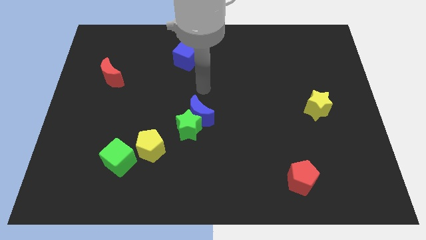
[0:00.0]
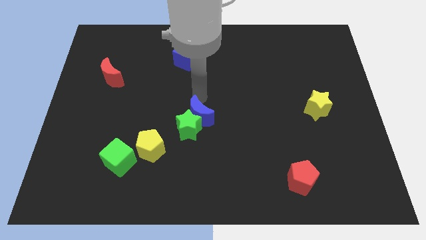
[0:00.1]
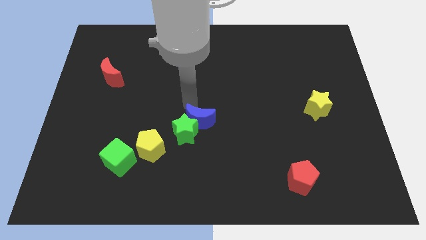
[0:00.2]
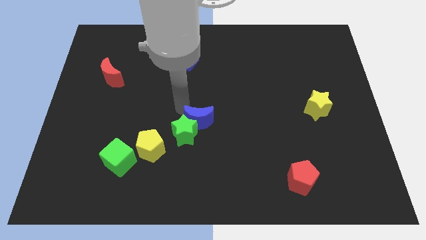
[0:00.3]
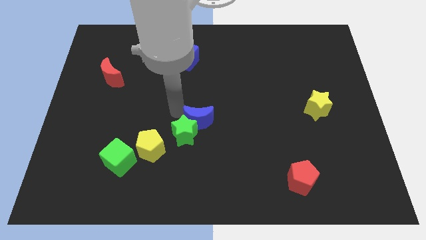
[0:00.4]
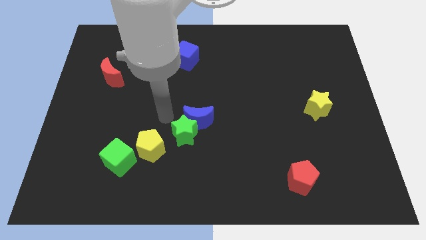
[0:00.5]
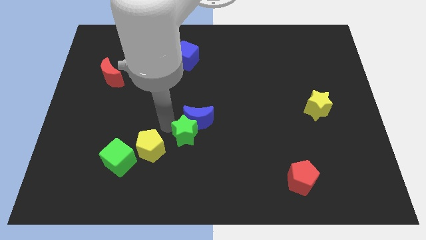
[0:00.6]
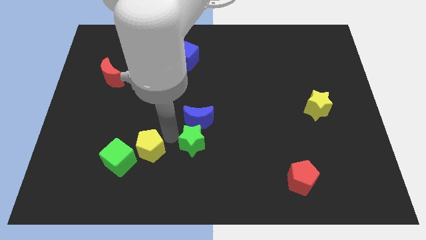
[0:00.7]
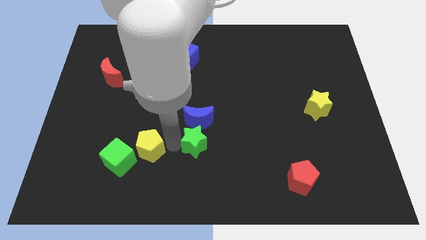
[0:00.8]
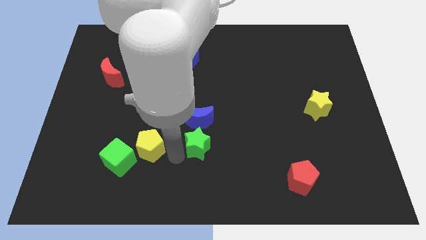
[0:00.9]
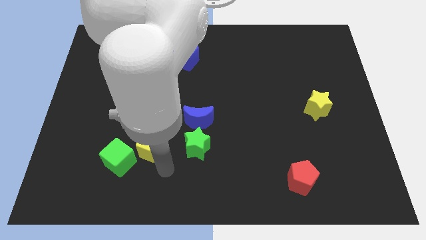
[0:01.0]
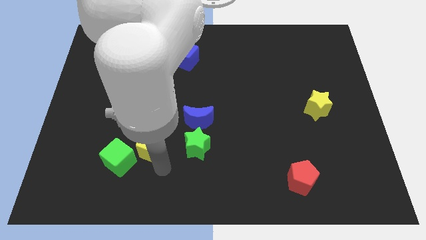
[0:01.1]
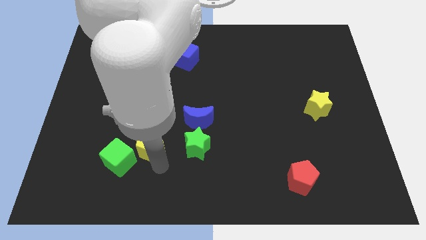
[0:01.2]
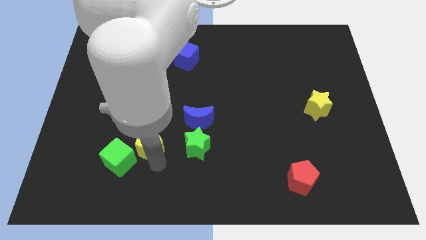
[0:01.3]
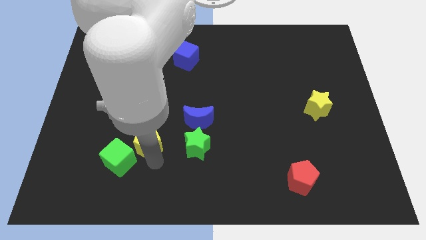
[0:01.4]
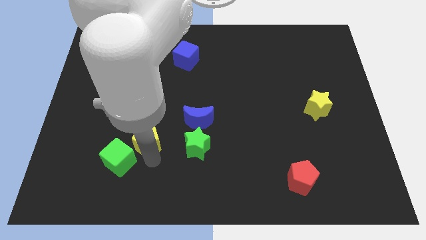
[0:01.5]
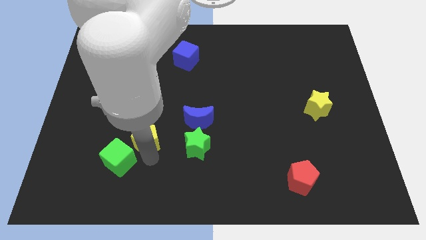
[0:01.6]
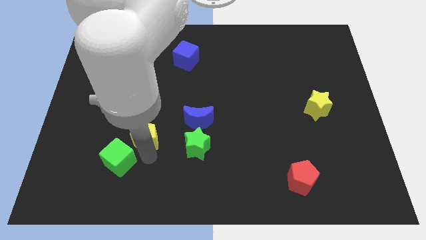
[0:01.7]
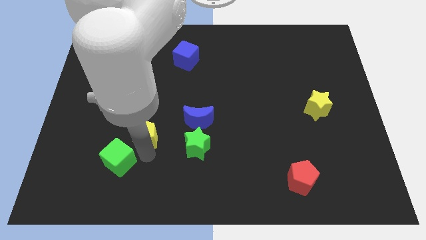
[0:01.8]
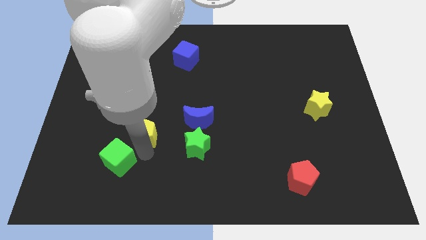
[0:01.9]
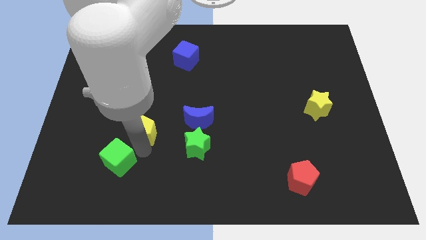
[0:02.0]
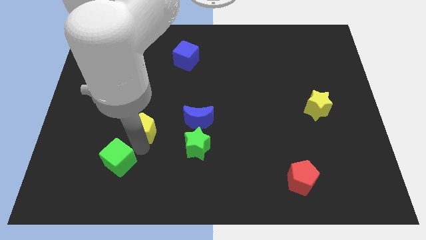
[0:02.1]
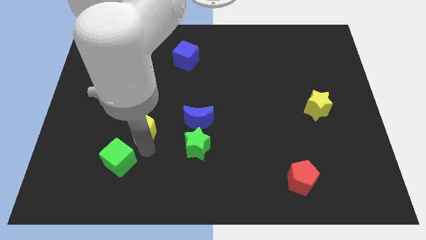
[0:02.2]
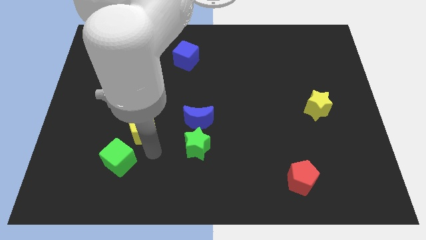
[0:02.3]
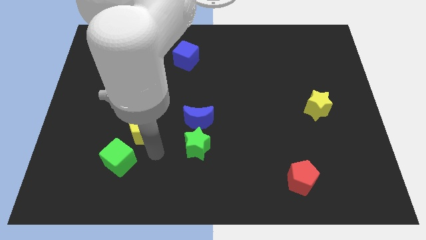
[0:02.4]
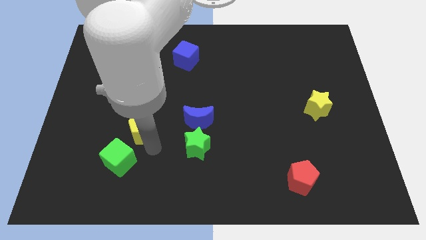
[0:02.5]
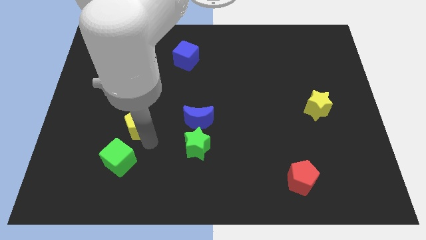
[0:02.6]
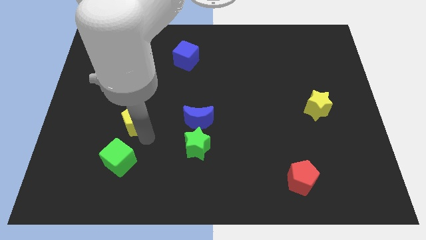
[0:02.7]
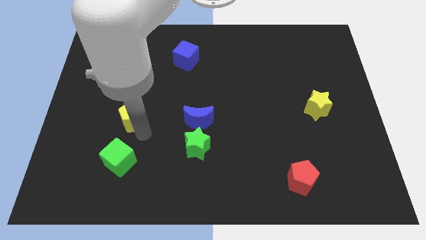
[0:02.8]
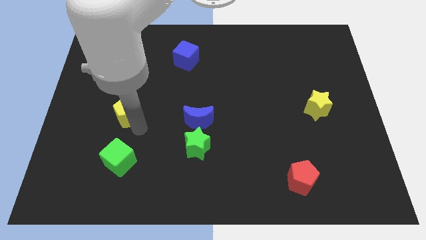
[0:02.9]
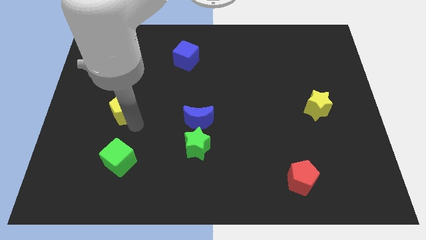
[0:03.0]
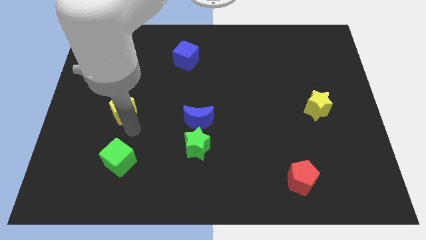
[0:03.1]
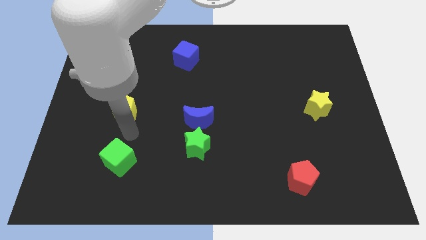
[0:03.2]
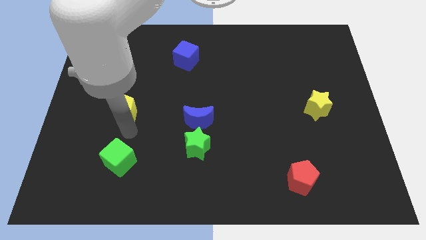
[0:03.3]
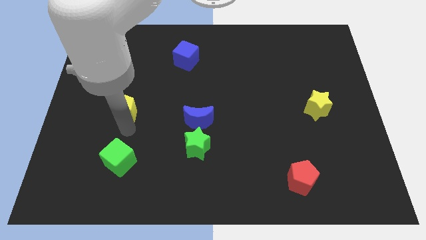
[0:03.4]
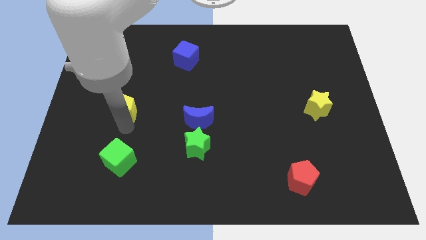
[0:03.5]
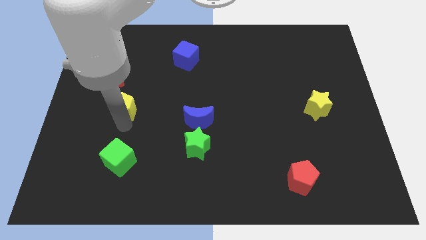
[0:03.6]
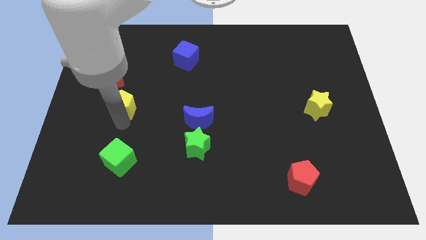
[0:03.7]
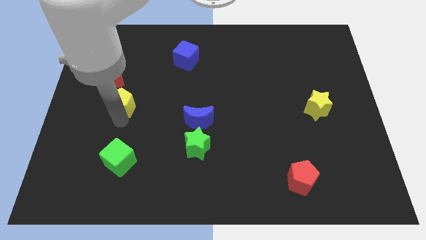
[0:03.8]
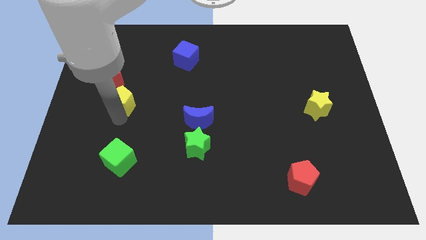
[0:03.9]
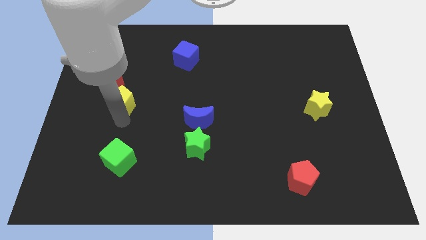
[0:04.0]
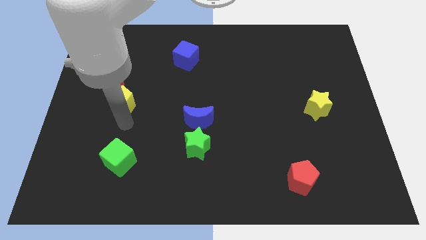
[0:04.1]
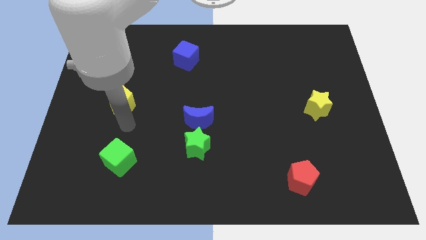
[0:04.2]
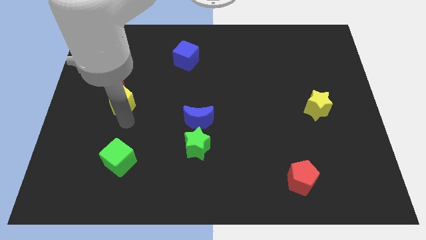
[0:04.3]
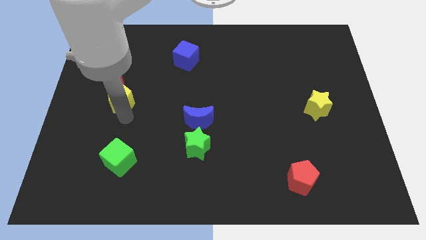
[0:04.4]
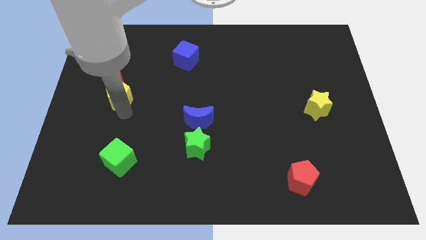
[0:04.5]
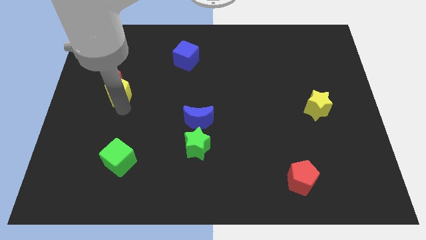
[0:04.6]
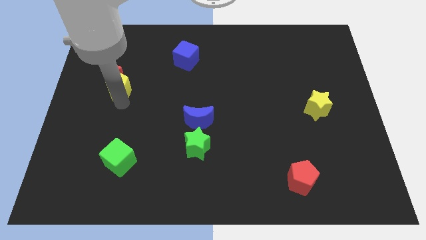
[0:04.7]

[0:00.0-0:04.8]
slide the yellow pentagon next to the red moon

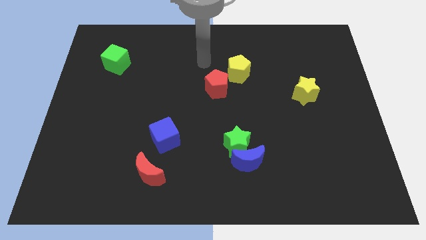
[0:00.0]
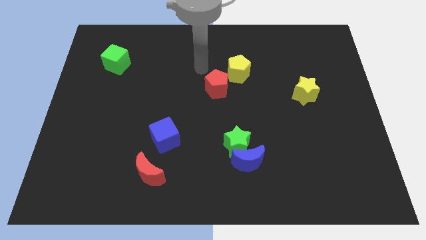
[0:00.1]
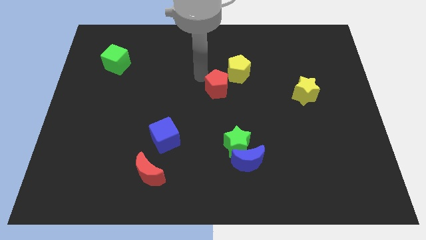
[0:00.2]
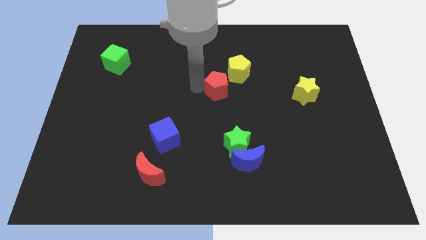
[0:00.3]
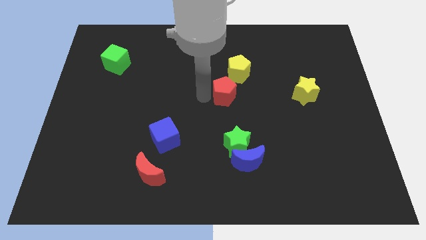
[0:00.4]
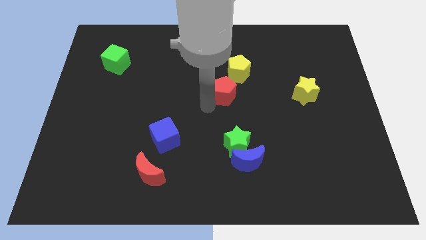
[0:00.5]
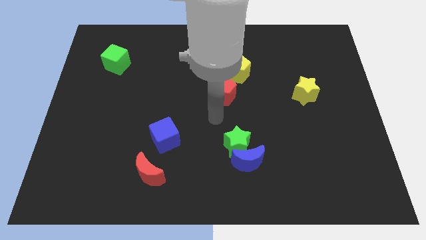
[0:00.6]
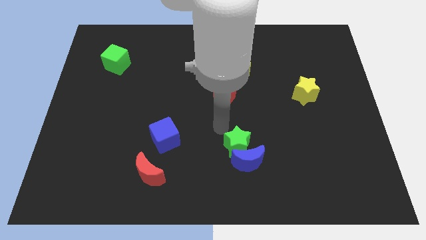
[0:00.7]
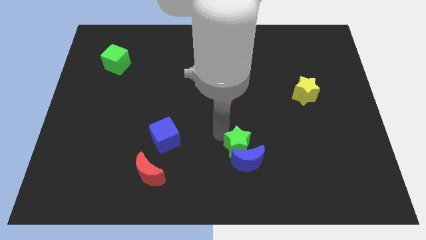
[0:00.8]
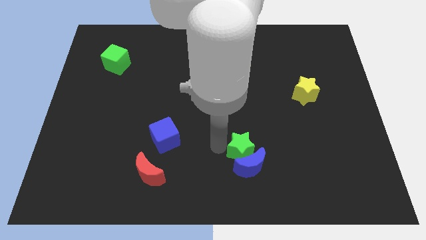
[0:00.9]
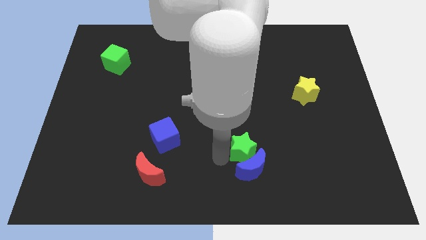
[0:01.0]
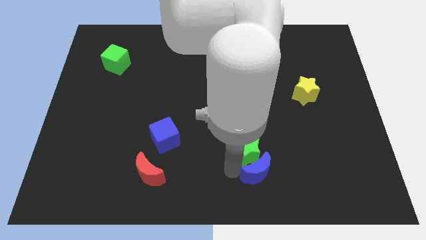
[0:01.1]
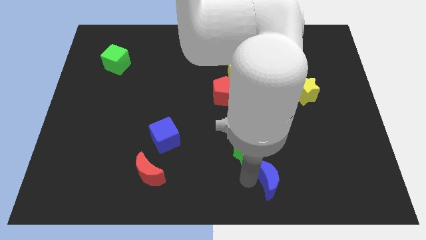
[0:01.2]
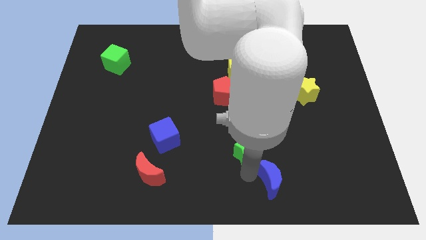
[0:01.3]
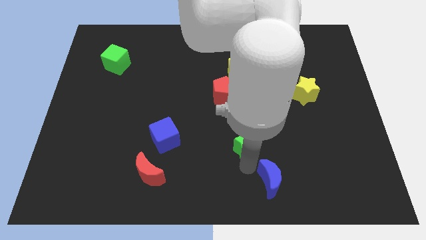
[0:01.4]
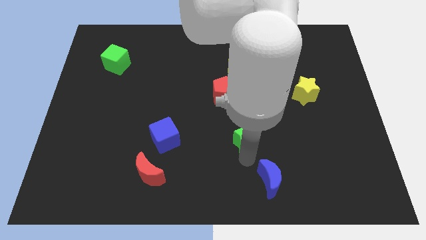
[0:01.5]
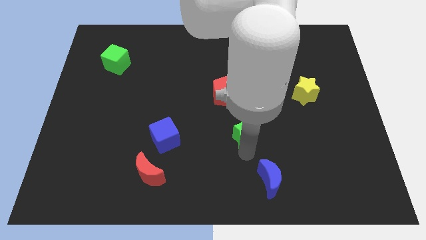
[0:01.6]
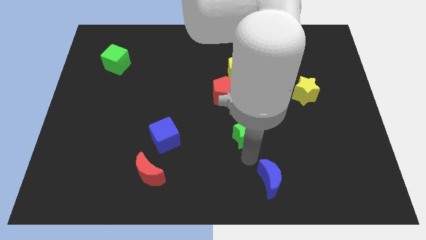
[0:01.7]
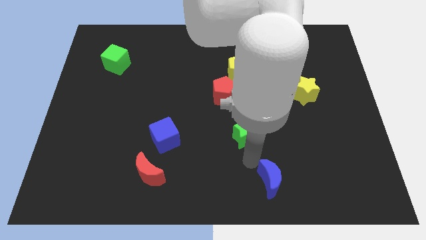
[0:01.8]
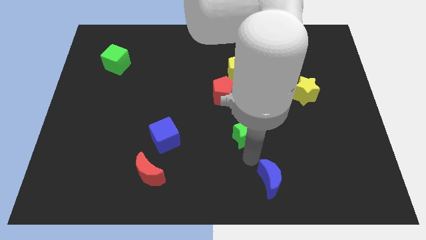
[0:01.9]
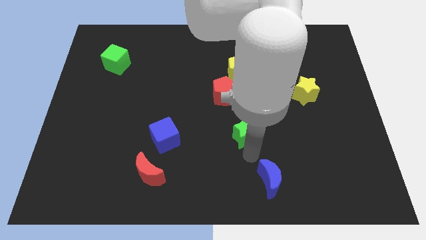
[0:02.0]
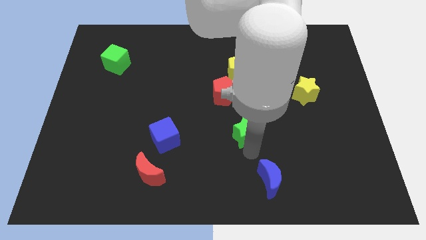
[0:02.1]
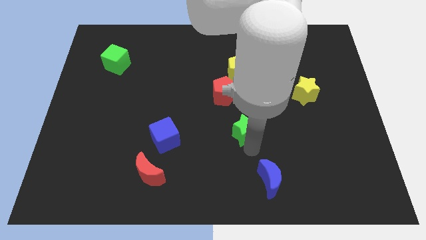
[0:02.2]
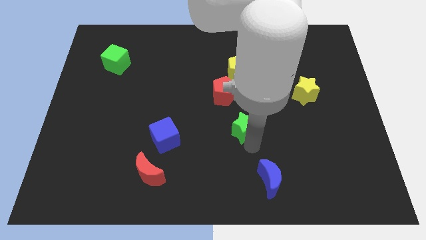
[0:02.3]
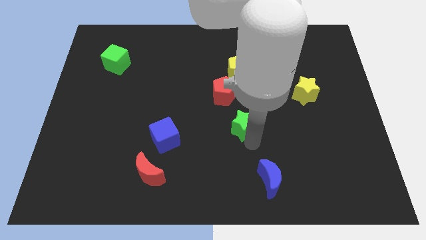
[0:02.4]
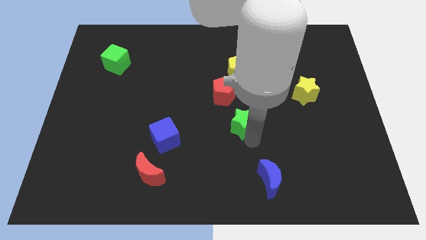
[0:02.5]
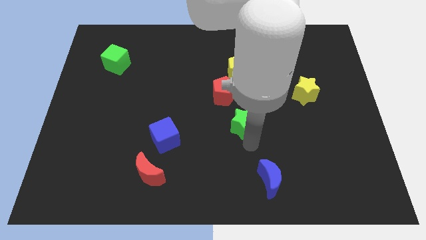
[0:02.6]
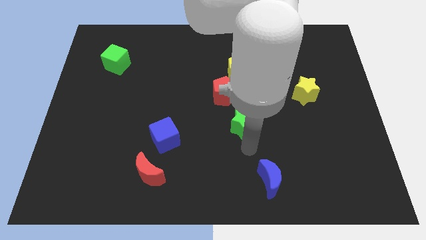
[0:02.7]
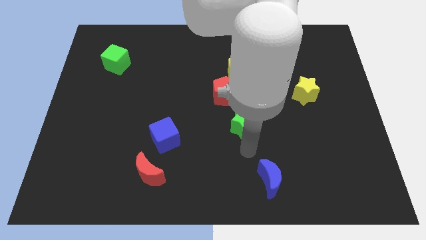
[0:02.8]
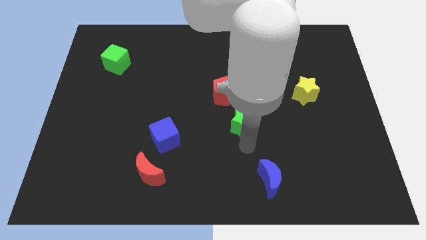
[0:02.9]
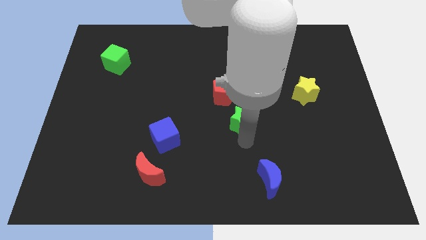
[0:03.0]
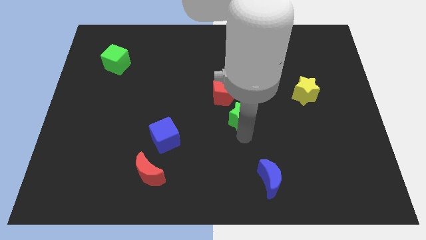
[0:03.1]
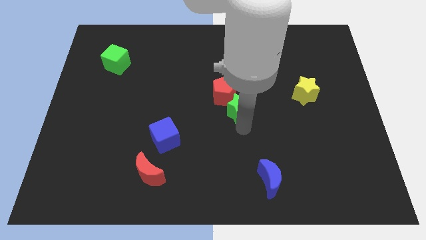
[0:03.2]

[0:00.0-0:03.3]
put the green star to the red pentagon
